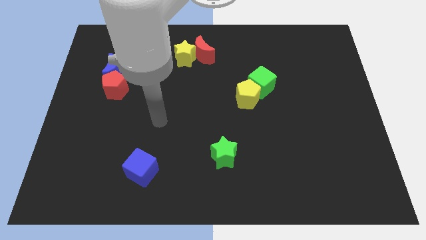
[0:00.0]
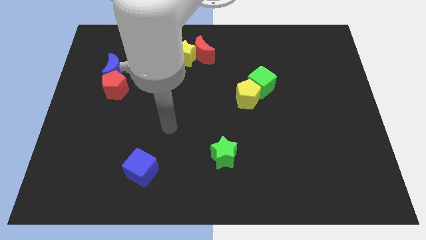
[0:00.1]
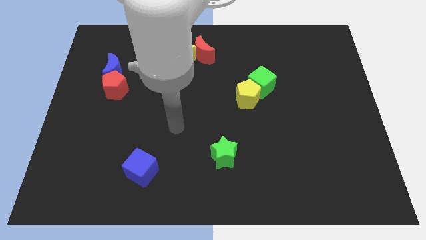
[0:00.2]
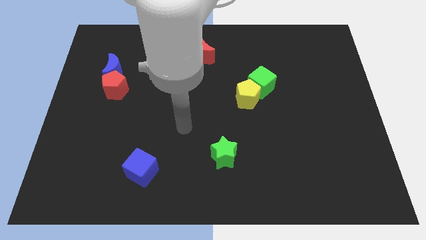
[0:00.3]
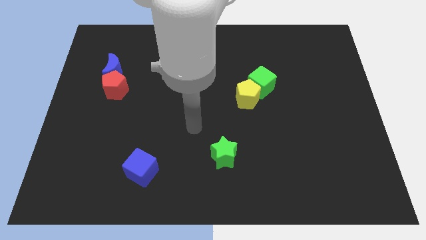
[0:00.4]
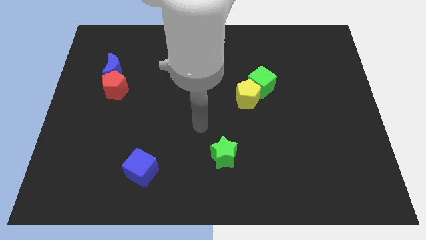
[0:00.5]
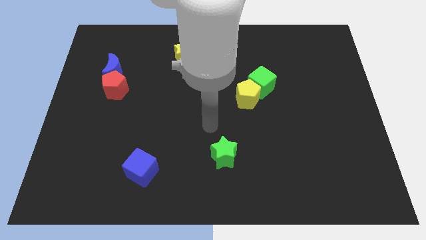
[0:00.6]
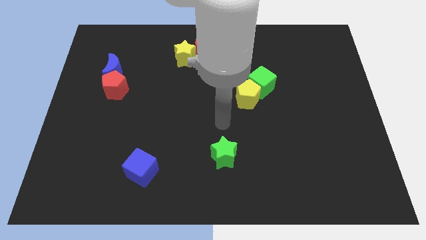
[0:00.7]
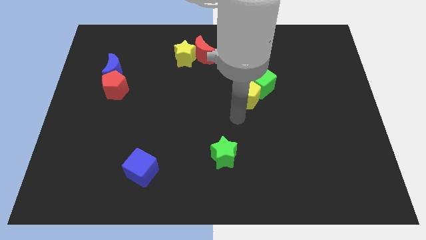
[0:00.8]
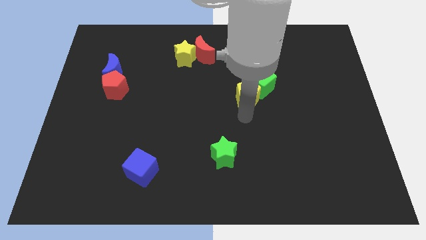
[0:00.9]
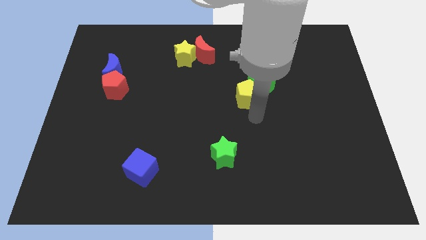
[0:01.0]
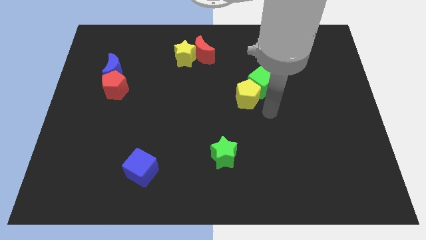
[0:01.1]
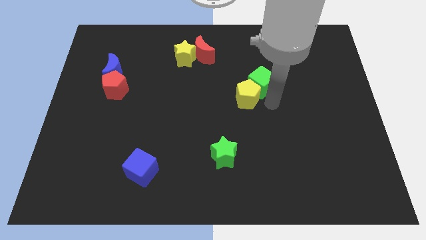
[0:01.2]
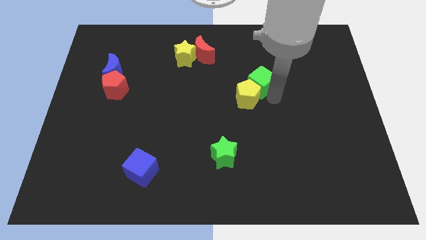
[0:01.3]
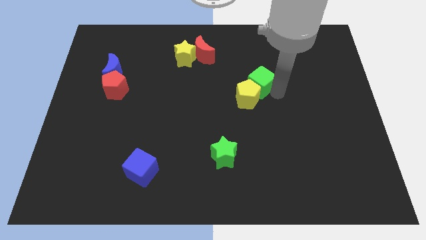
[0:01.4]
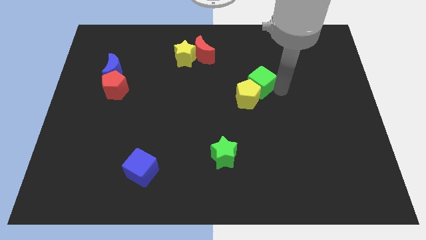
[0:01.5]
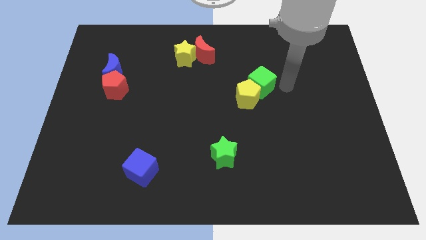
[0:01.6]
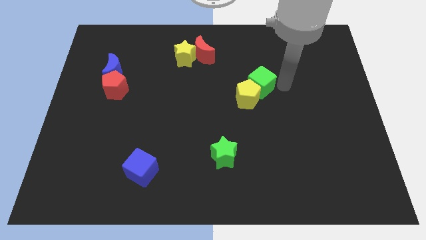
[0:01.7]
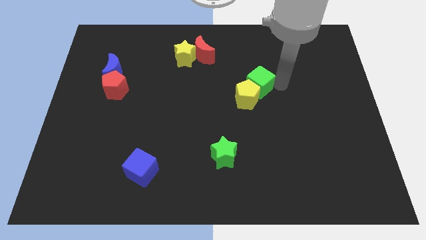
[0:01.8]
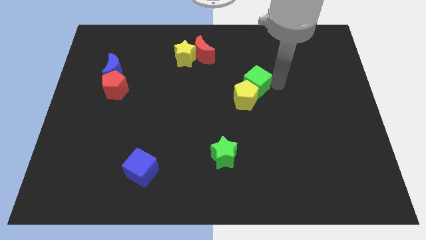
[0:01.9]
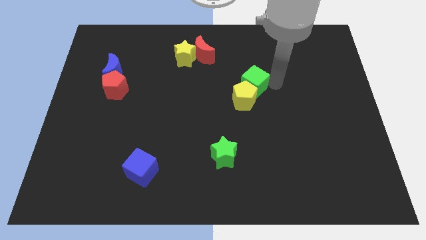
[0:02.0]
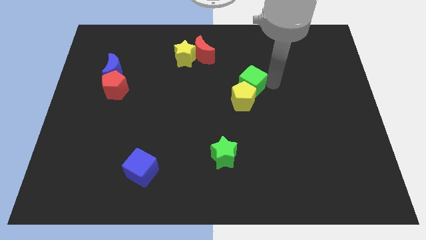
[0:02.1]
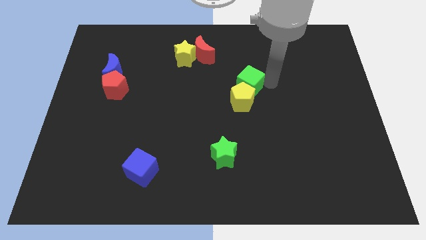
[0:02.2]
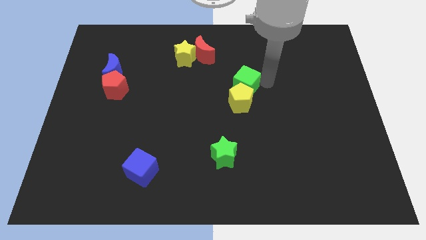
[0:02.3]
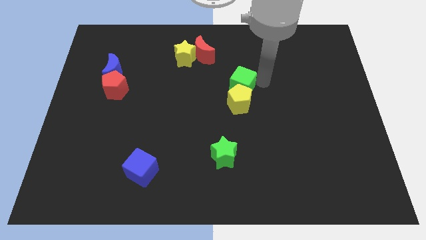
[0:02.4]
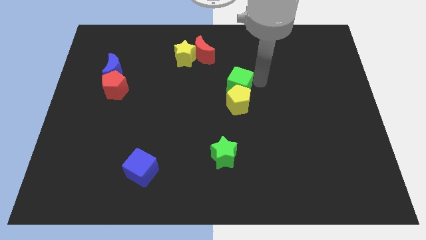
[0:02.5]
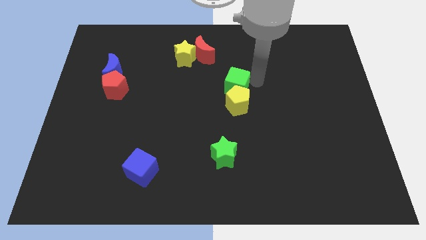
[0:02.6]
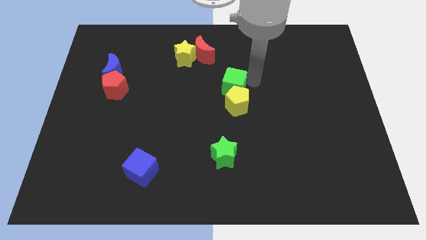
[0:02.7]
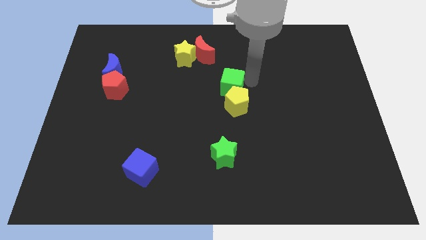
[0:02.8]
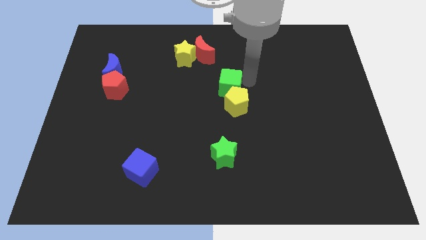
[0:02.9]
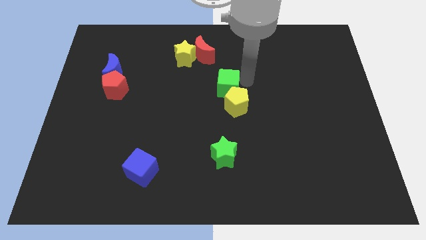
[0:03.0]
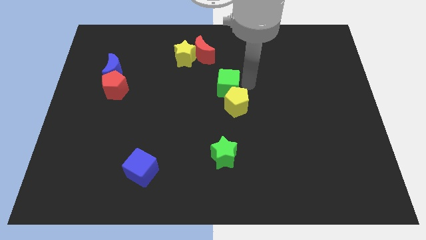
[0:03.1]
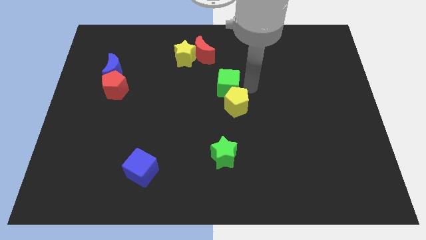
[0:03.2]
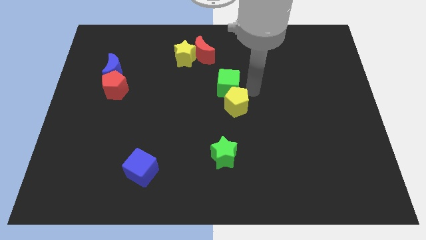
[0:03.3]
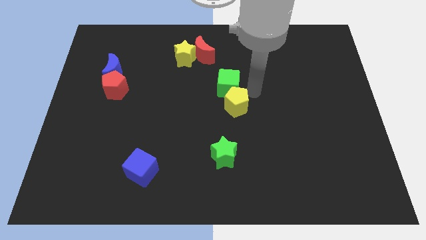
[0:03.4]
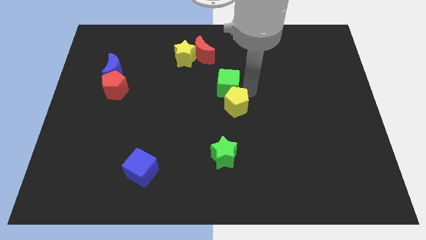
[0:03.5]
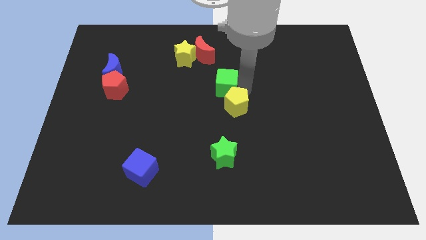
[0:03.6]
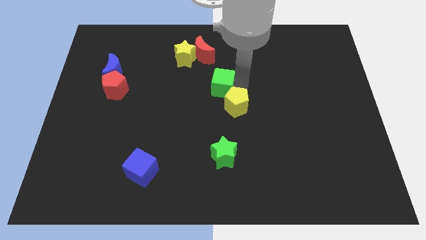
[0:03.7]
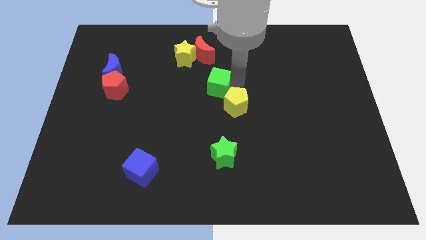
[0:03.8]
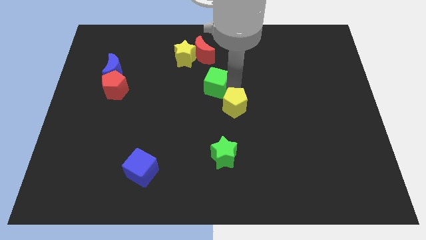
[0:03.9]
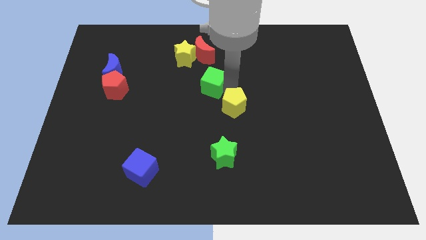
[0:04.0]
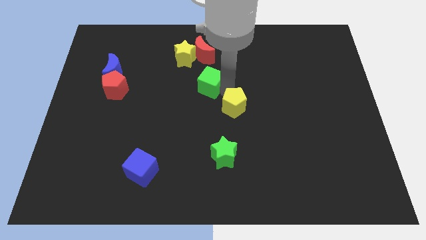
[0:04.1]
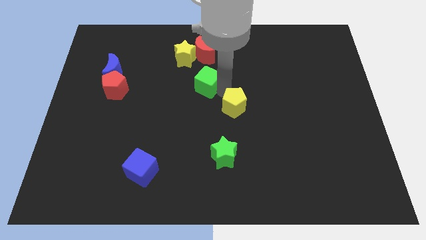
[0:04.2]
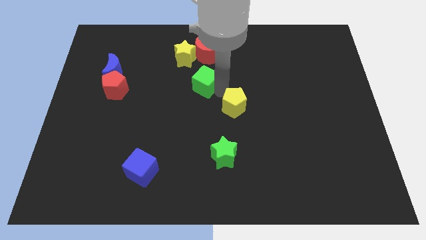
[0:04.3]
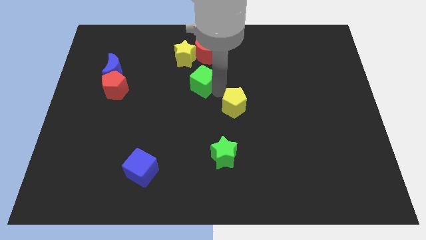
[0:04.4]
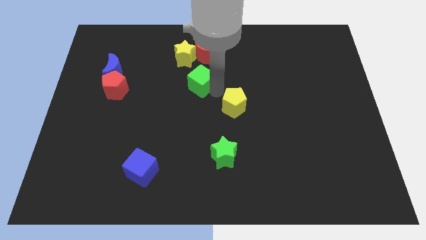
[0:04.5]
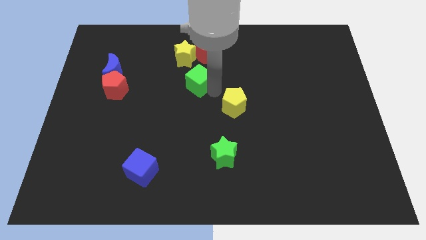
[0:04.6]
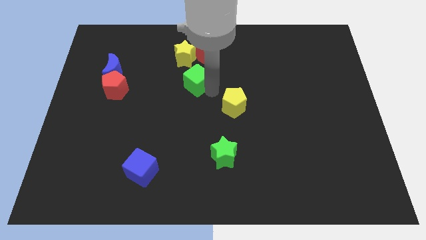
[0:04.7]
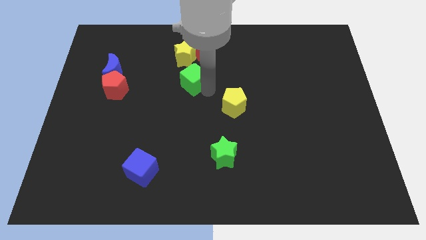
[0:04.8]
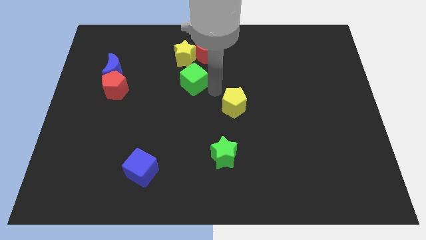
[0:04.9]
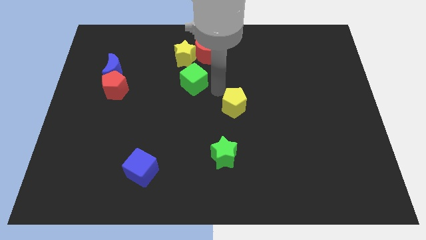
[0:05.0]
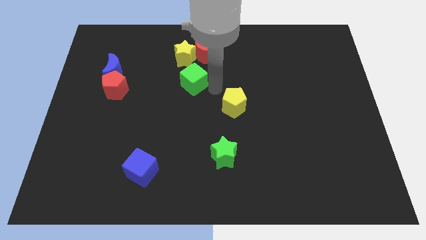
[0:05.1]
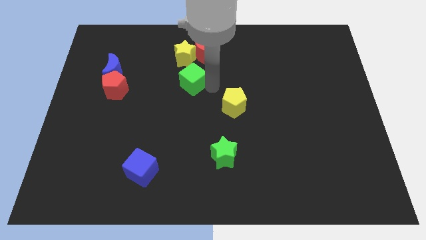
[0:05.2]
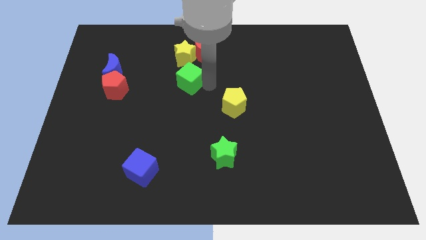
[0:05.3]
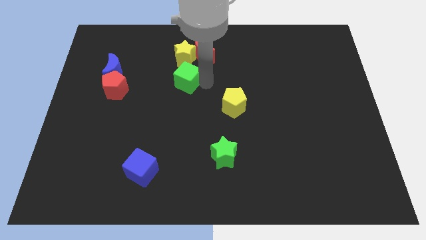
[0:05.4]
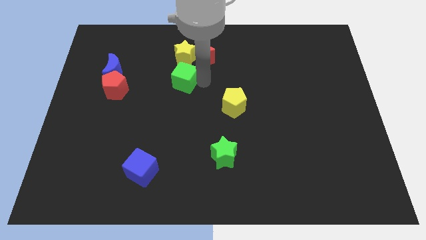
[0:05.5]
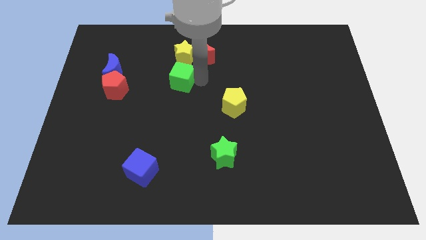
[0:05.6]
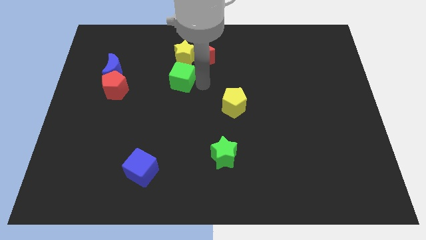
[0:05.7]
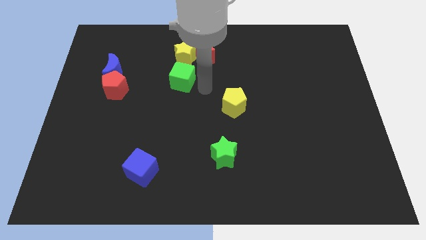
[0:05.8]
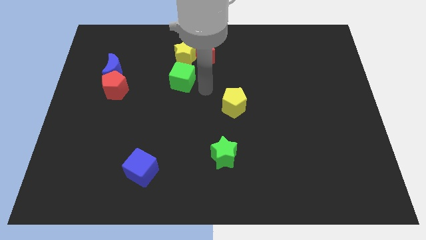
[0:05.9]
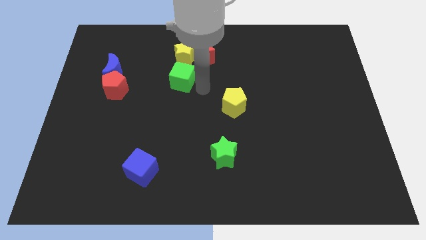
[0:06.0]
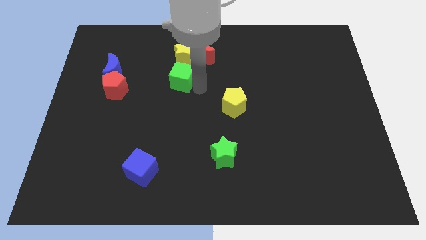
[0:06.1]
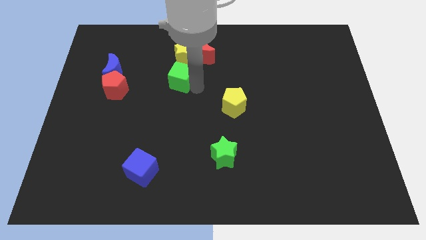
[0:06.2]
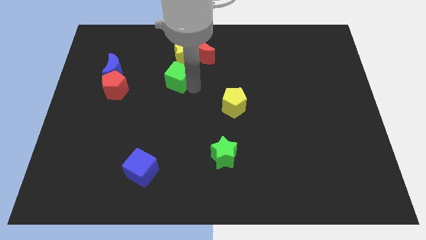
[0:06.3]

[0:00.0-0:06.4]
put the green cube to the bottom left side of the yellow star
